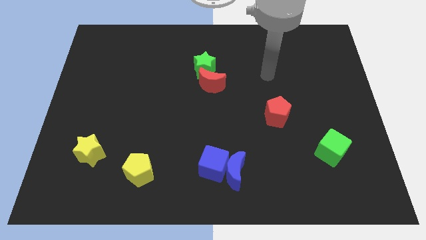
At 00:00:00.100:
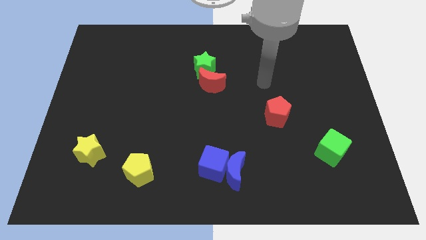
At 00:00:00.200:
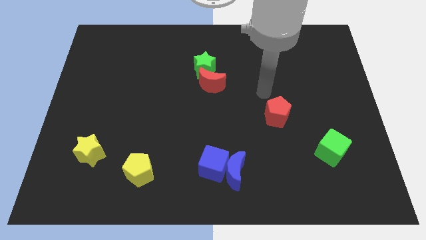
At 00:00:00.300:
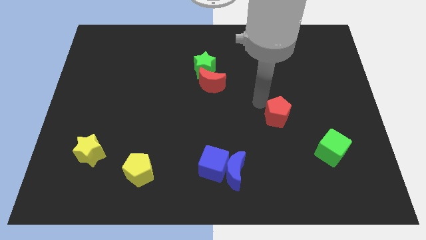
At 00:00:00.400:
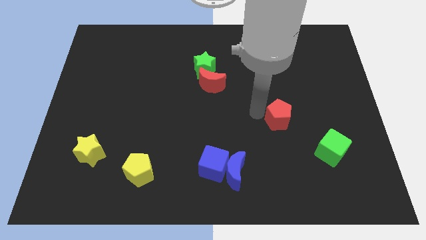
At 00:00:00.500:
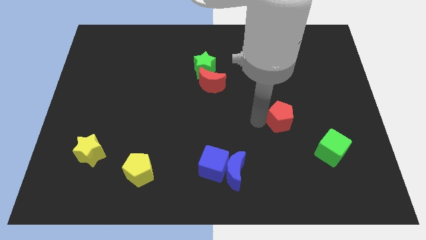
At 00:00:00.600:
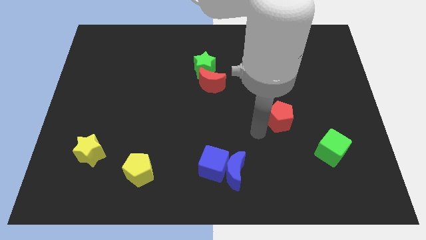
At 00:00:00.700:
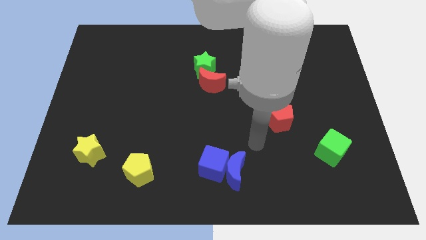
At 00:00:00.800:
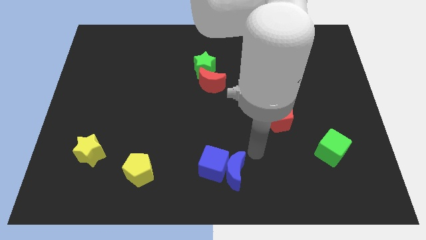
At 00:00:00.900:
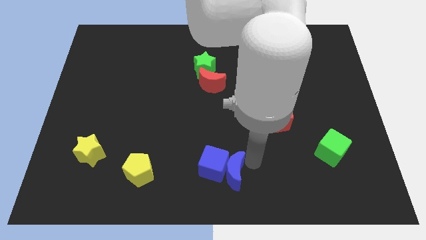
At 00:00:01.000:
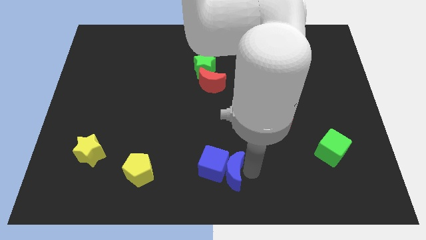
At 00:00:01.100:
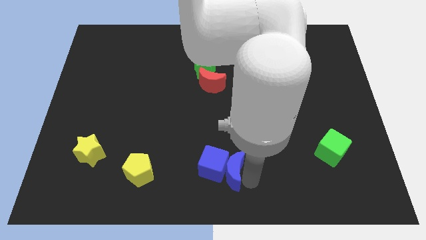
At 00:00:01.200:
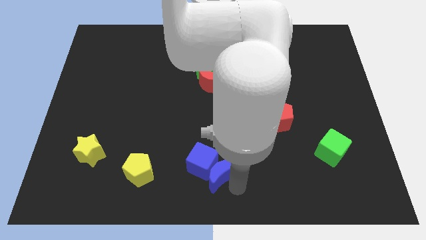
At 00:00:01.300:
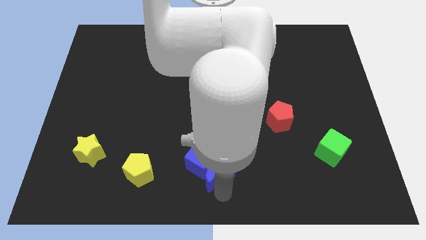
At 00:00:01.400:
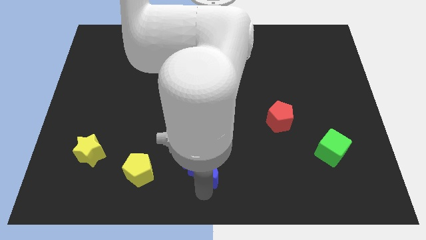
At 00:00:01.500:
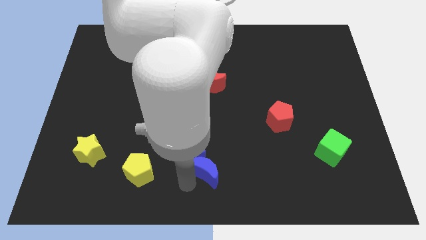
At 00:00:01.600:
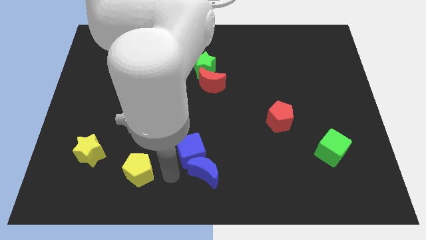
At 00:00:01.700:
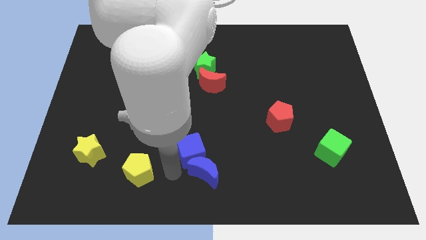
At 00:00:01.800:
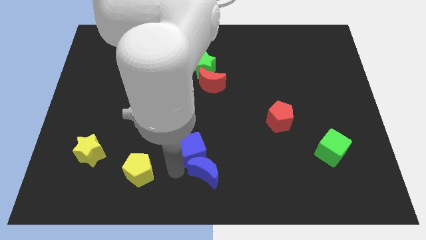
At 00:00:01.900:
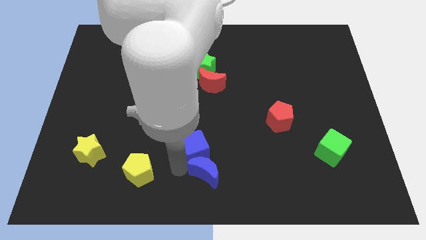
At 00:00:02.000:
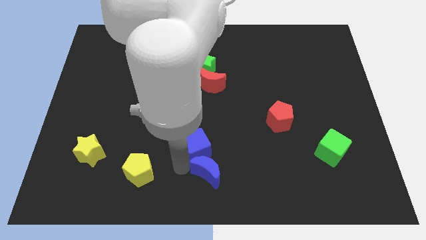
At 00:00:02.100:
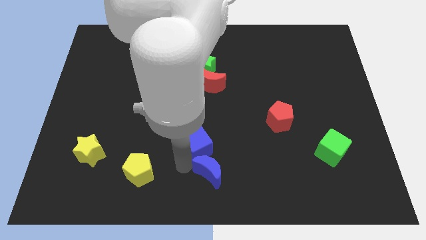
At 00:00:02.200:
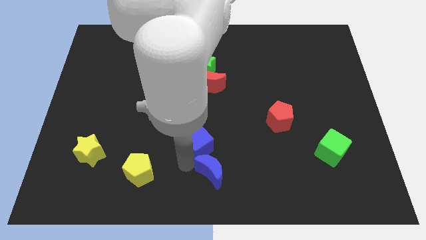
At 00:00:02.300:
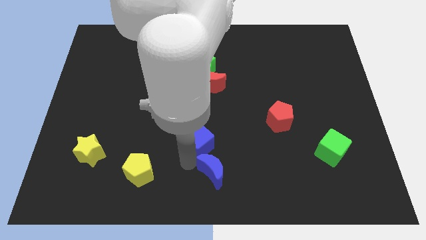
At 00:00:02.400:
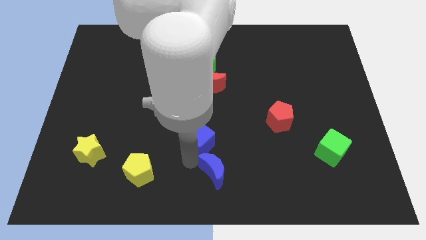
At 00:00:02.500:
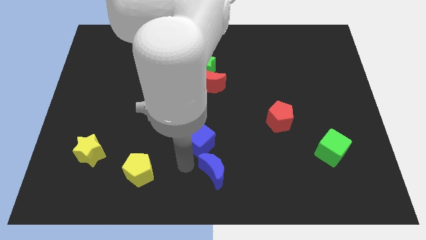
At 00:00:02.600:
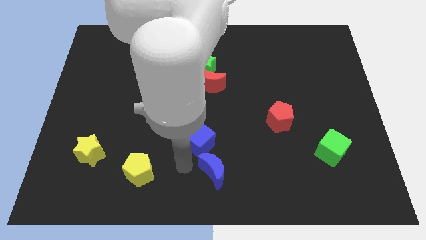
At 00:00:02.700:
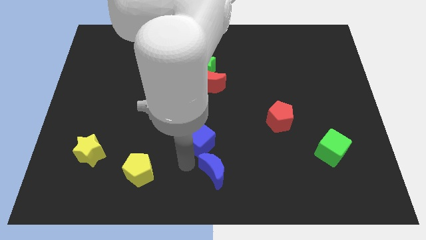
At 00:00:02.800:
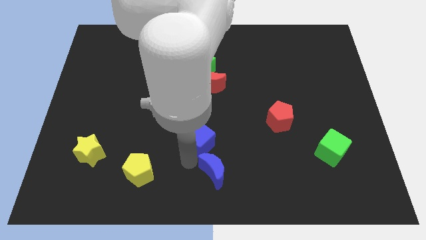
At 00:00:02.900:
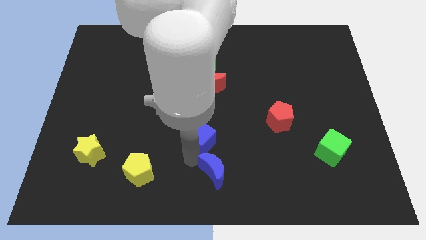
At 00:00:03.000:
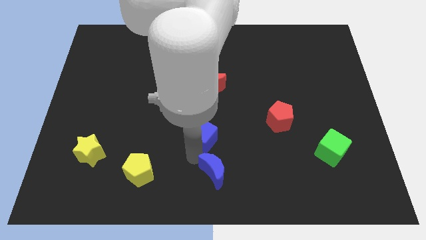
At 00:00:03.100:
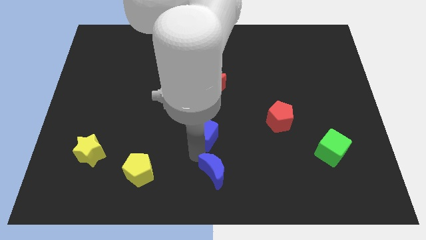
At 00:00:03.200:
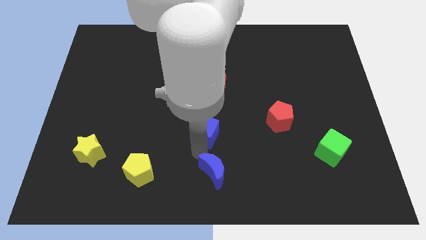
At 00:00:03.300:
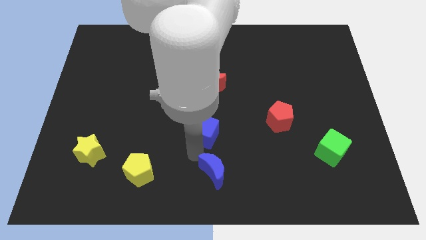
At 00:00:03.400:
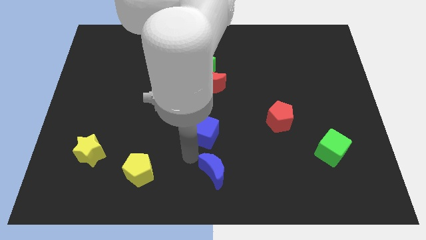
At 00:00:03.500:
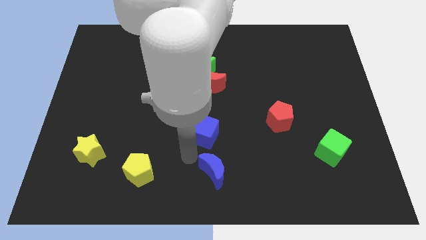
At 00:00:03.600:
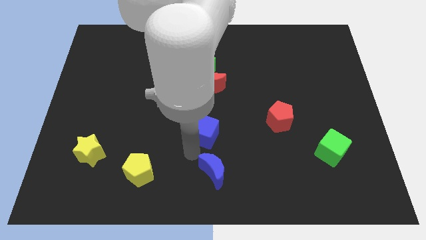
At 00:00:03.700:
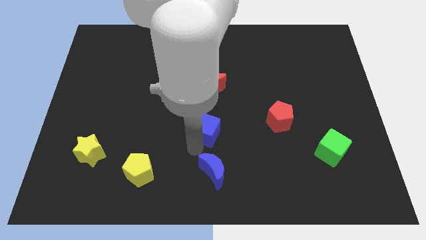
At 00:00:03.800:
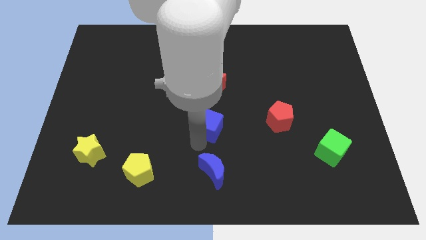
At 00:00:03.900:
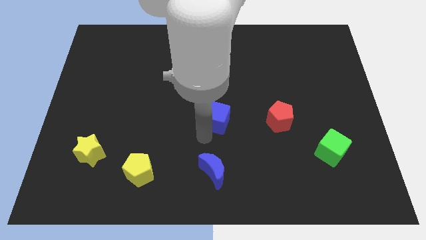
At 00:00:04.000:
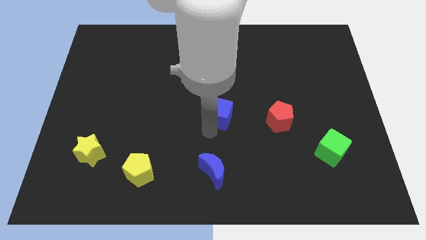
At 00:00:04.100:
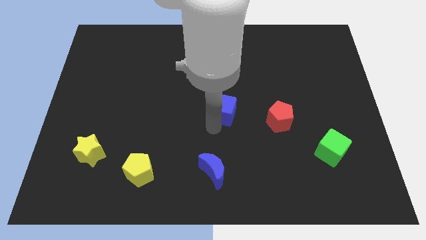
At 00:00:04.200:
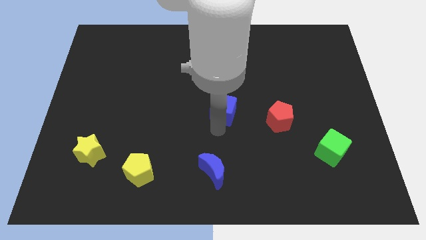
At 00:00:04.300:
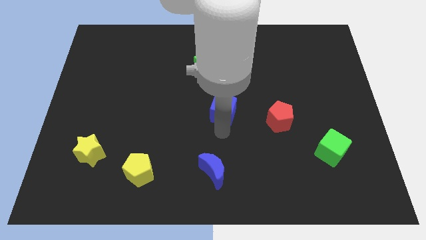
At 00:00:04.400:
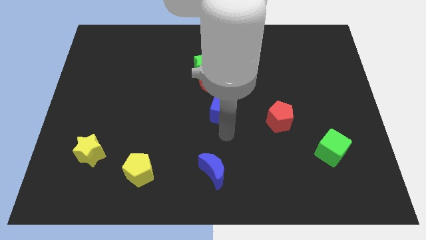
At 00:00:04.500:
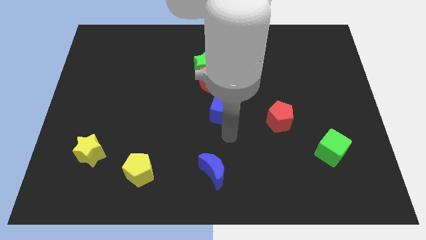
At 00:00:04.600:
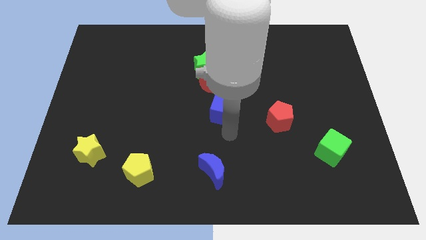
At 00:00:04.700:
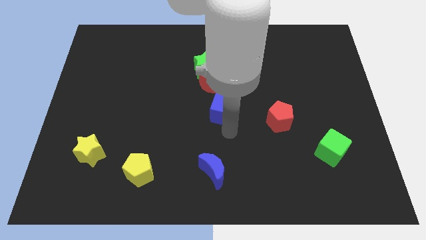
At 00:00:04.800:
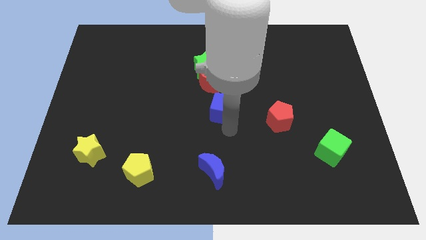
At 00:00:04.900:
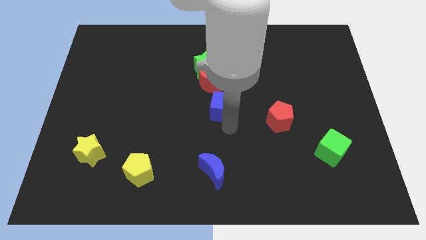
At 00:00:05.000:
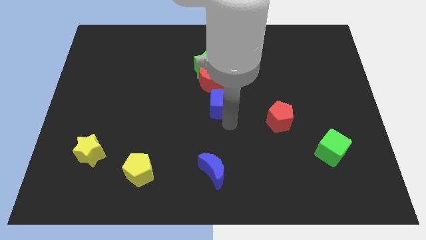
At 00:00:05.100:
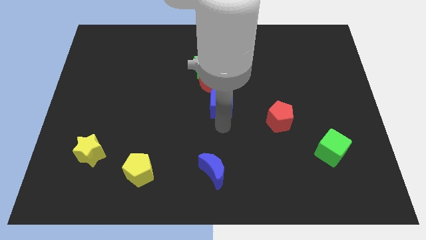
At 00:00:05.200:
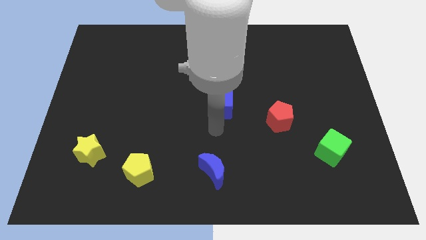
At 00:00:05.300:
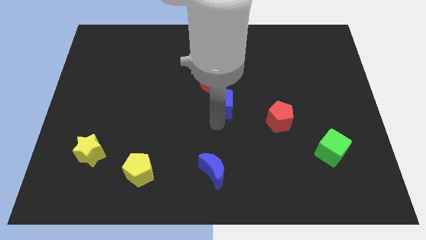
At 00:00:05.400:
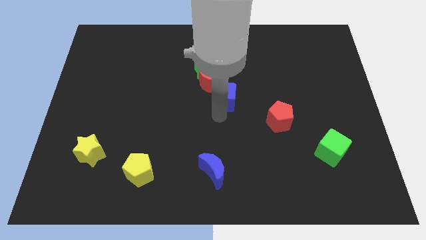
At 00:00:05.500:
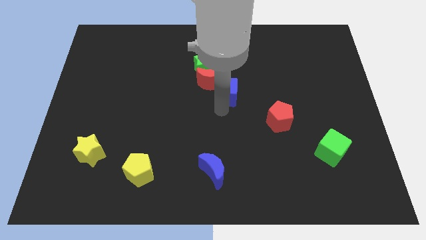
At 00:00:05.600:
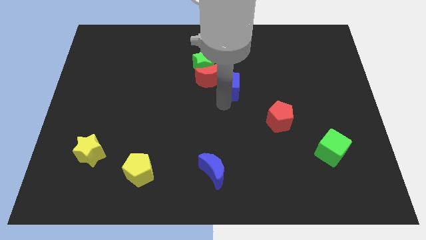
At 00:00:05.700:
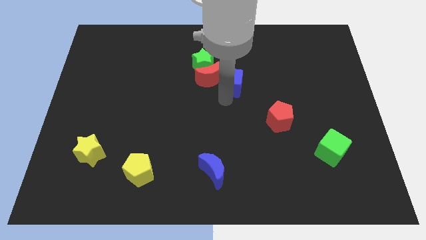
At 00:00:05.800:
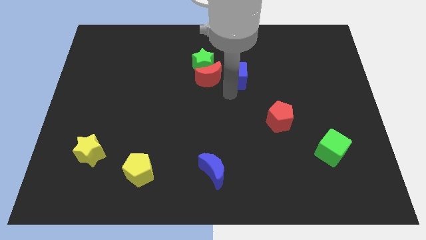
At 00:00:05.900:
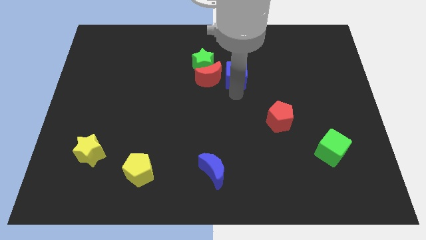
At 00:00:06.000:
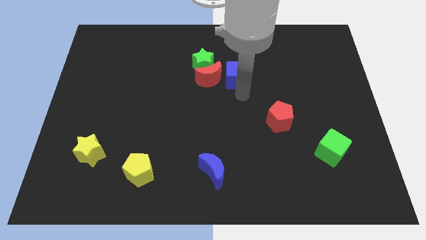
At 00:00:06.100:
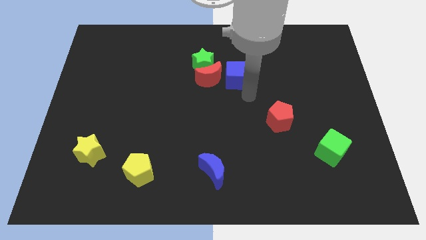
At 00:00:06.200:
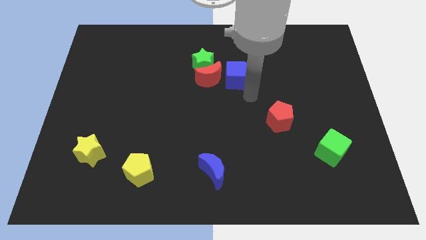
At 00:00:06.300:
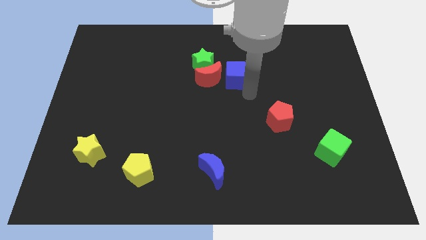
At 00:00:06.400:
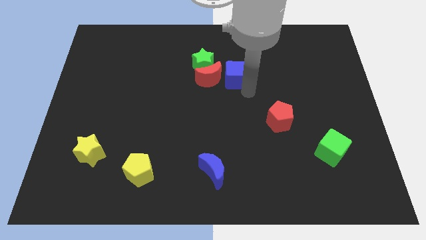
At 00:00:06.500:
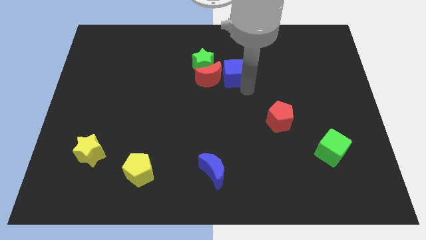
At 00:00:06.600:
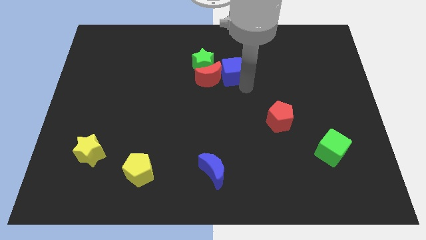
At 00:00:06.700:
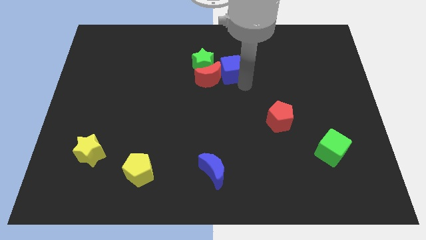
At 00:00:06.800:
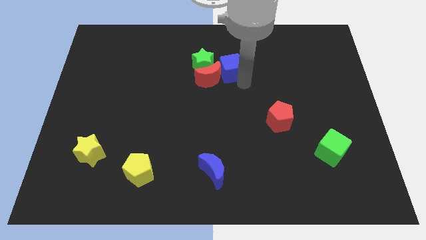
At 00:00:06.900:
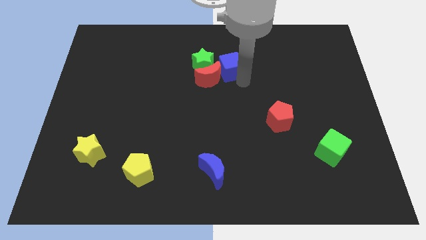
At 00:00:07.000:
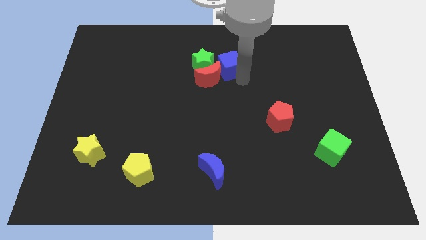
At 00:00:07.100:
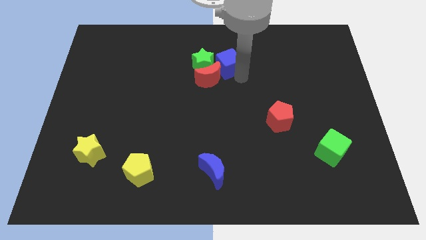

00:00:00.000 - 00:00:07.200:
move the blue cube to the top of the red moon
